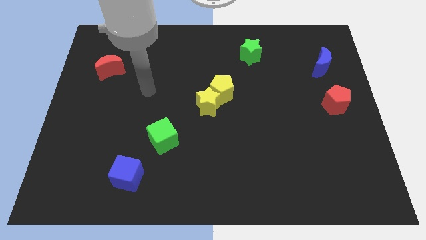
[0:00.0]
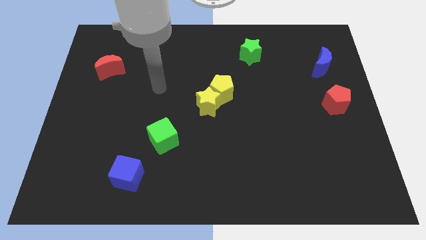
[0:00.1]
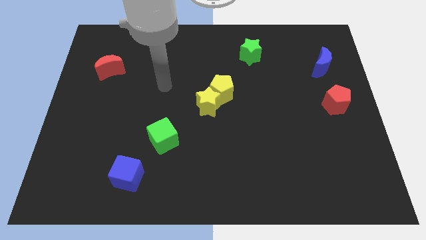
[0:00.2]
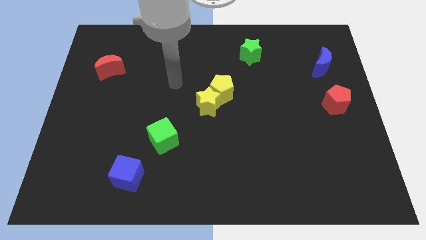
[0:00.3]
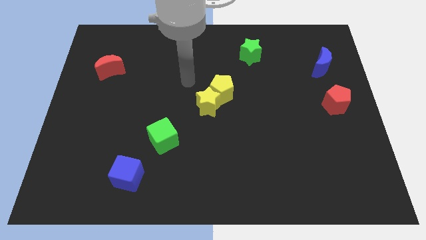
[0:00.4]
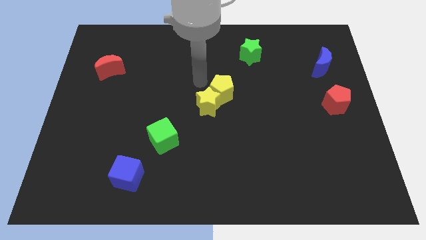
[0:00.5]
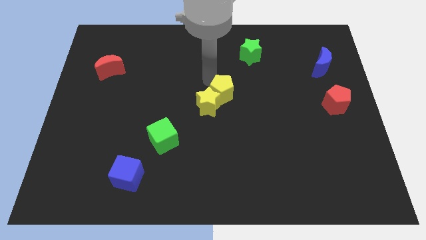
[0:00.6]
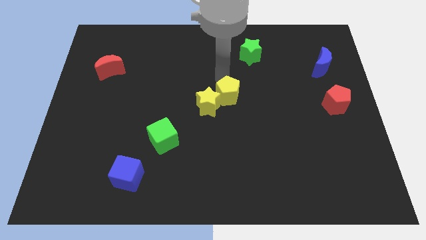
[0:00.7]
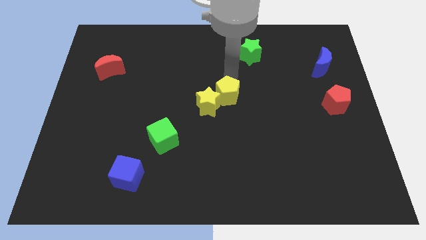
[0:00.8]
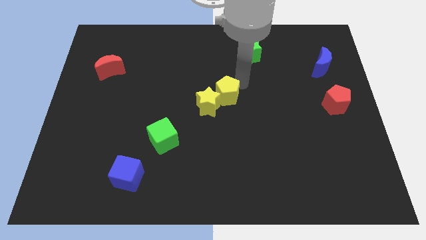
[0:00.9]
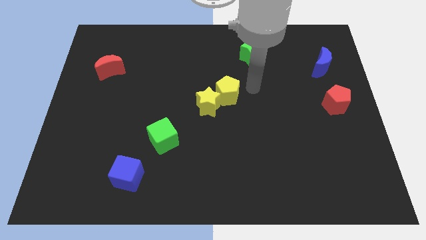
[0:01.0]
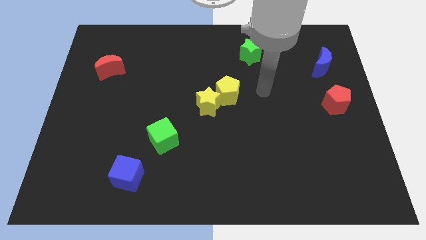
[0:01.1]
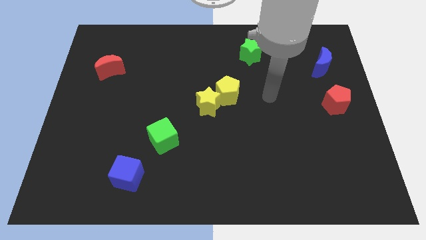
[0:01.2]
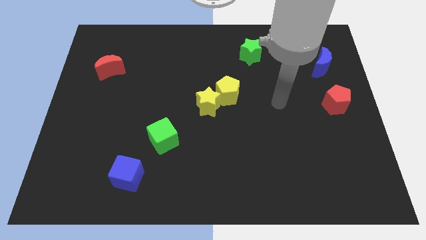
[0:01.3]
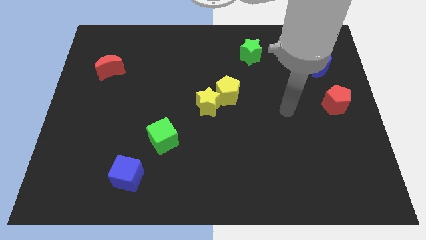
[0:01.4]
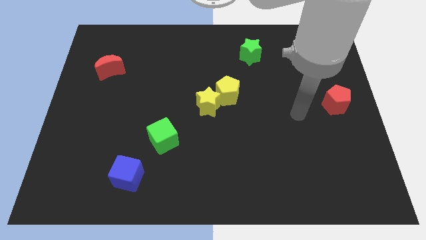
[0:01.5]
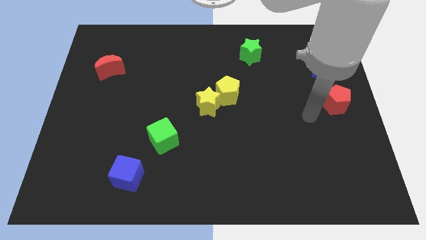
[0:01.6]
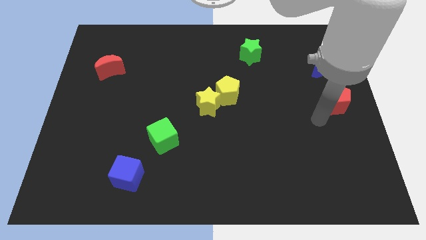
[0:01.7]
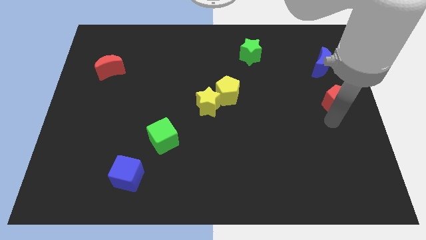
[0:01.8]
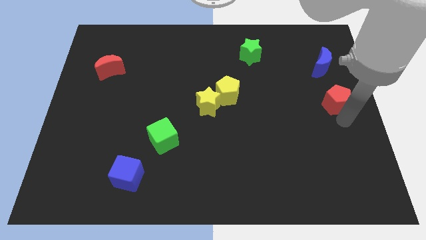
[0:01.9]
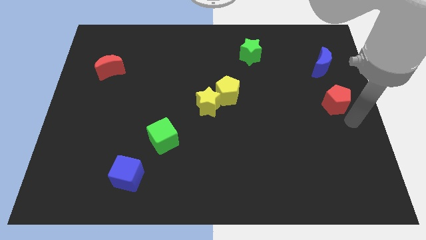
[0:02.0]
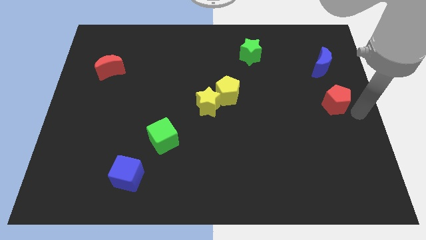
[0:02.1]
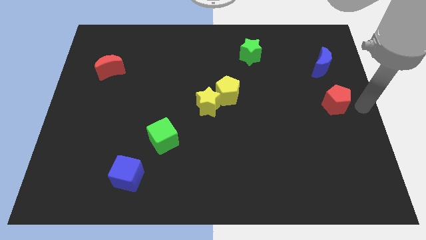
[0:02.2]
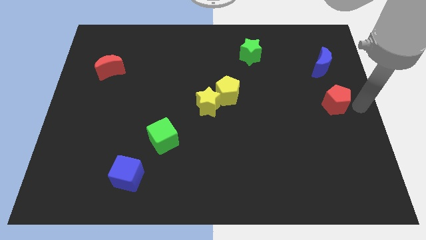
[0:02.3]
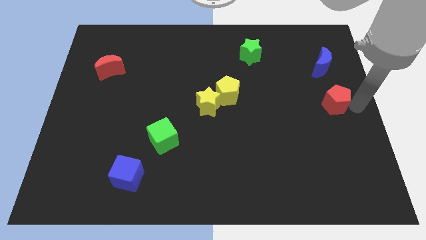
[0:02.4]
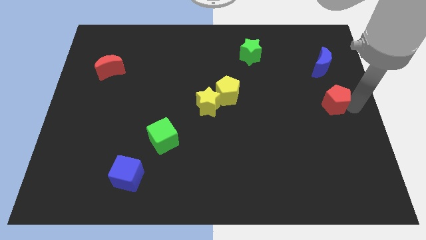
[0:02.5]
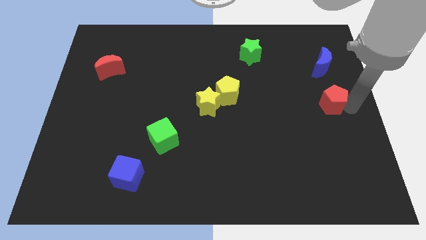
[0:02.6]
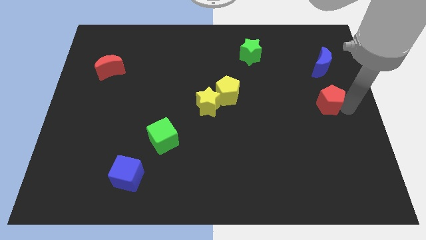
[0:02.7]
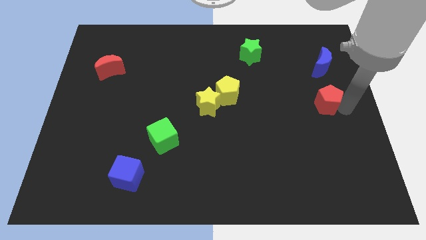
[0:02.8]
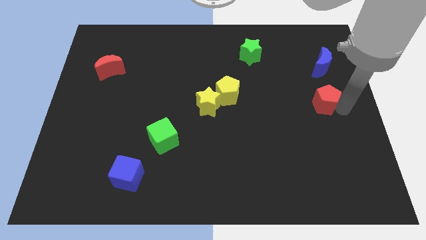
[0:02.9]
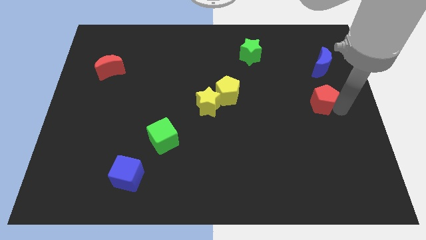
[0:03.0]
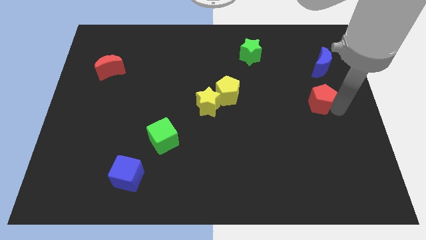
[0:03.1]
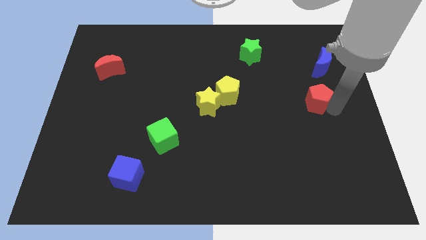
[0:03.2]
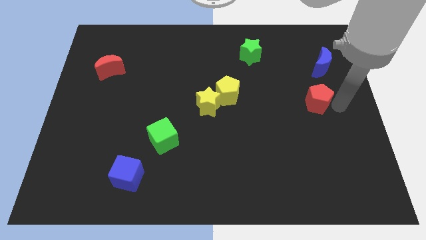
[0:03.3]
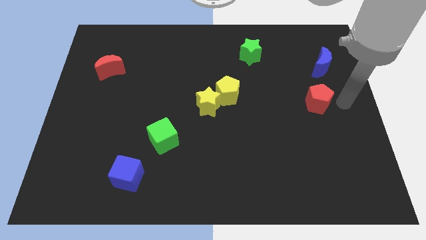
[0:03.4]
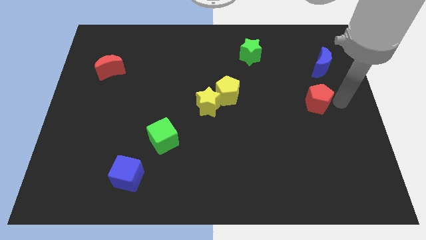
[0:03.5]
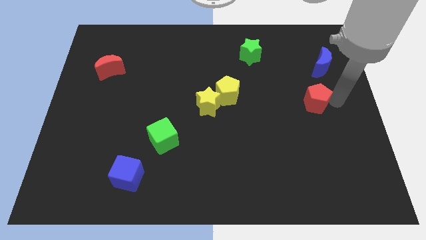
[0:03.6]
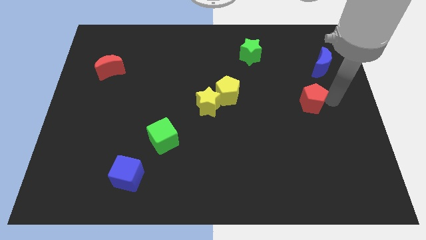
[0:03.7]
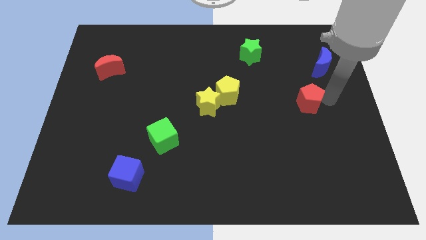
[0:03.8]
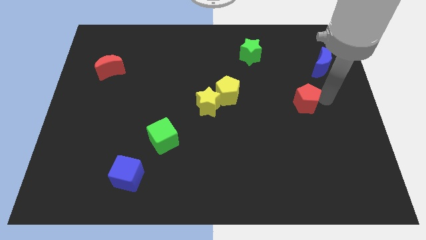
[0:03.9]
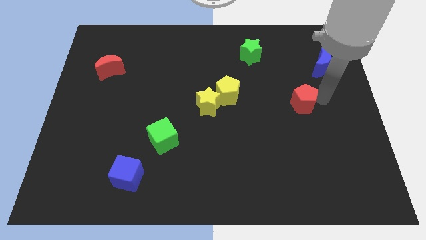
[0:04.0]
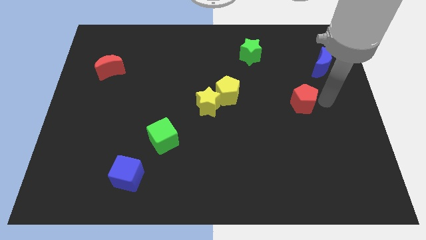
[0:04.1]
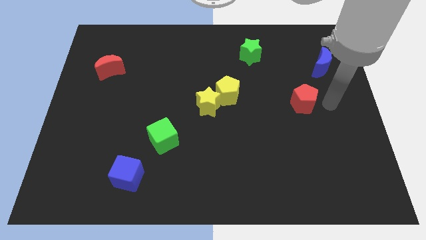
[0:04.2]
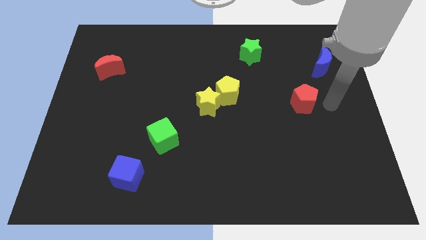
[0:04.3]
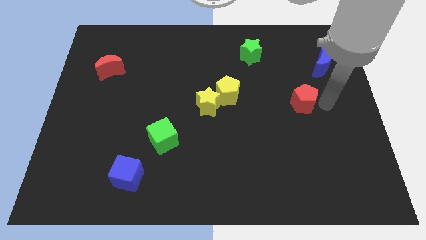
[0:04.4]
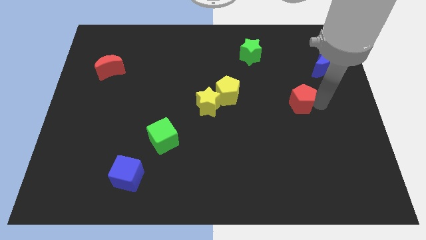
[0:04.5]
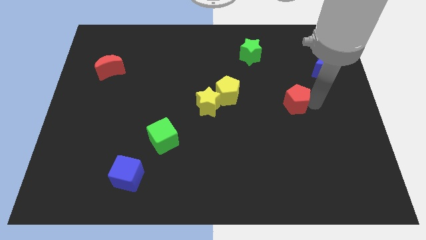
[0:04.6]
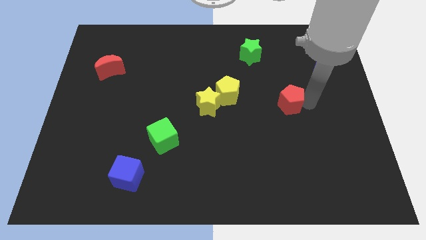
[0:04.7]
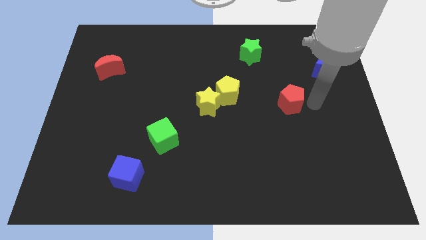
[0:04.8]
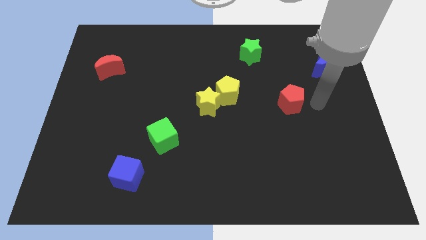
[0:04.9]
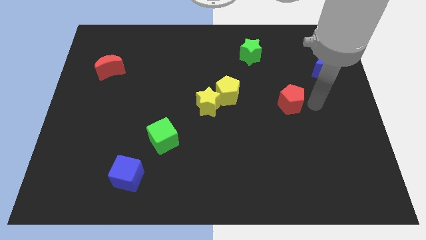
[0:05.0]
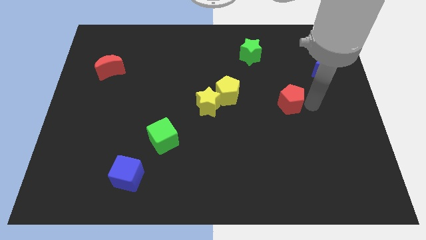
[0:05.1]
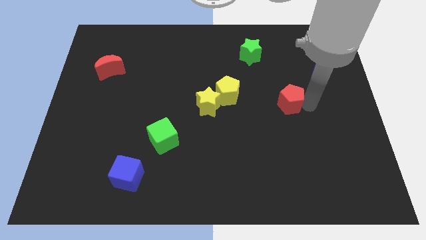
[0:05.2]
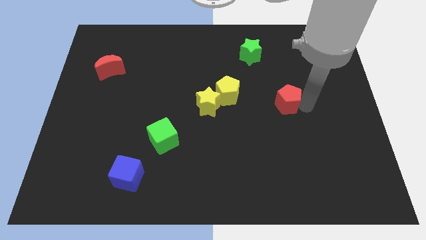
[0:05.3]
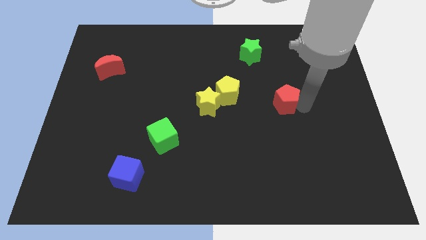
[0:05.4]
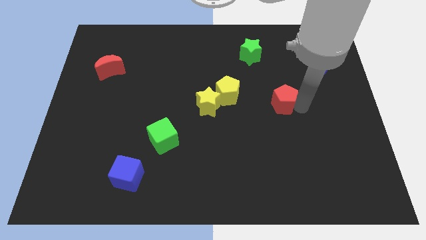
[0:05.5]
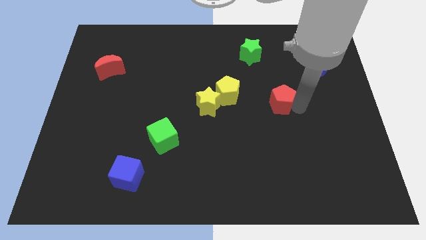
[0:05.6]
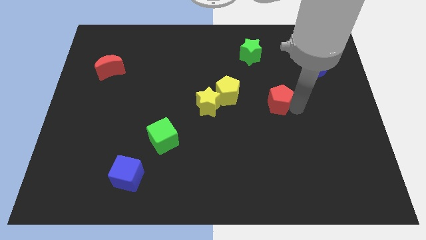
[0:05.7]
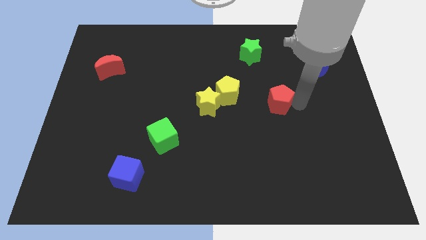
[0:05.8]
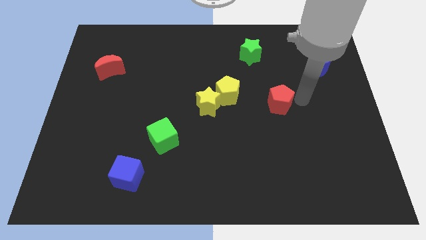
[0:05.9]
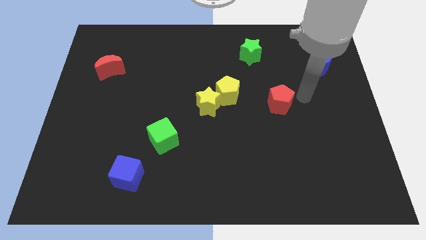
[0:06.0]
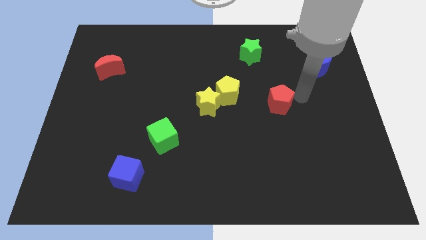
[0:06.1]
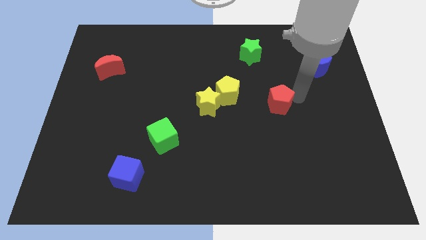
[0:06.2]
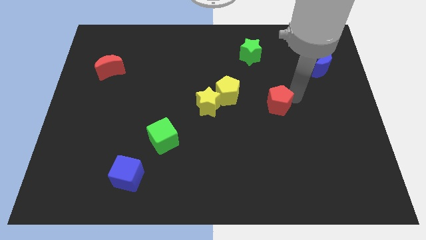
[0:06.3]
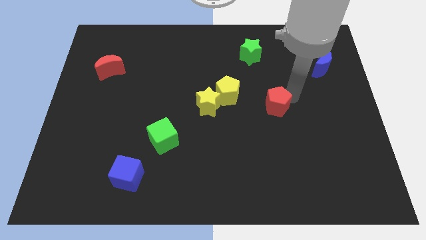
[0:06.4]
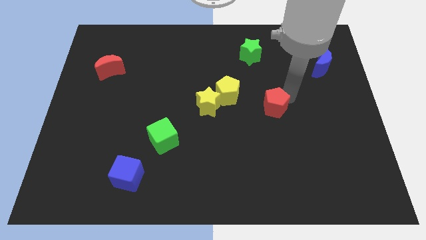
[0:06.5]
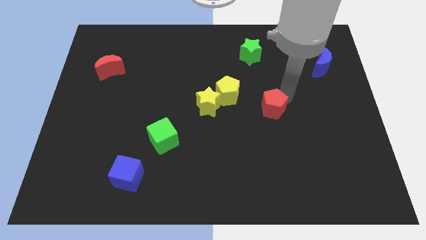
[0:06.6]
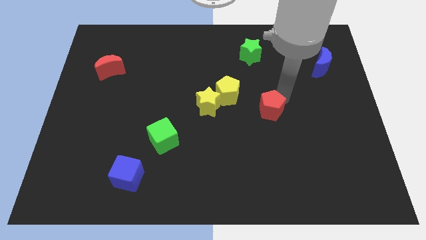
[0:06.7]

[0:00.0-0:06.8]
move the red pentagon to the bottom right of the yellow pentagon
